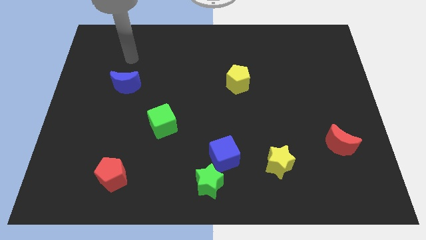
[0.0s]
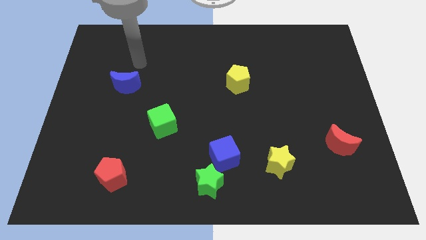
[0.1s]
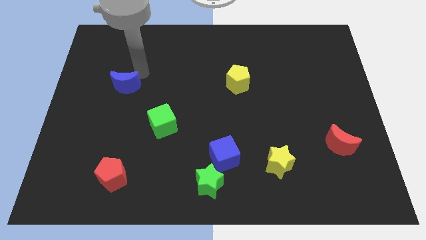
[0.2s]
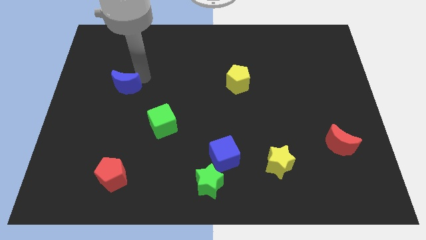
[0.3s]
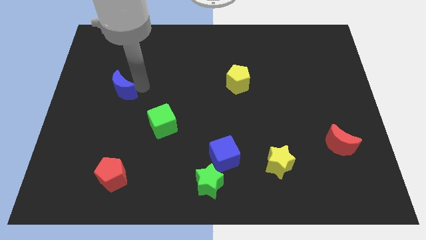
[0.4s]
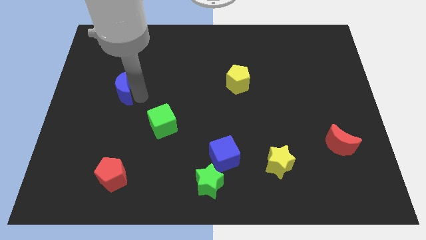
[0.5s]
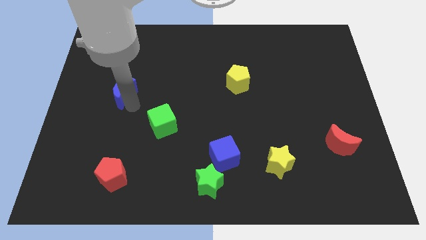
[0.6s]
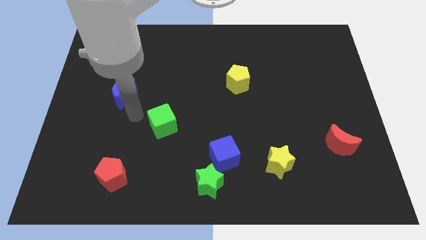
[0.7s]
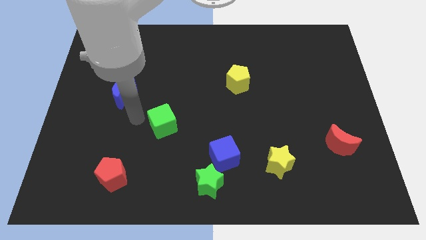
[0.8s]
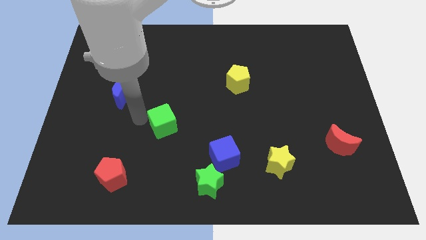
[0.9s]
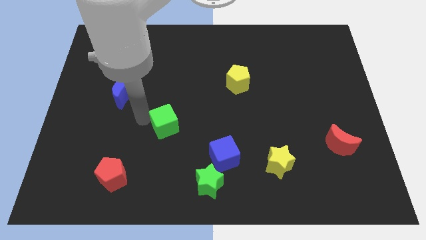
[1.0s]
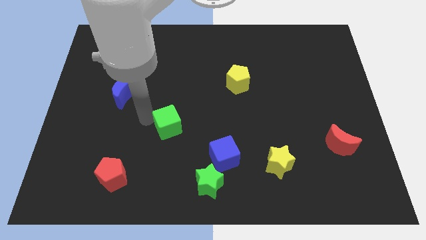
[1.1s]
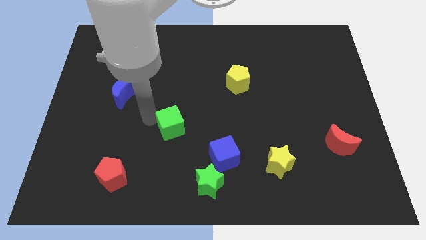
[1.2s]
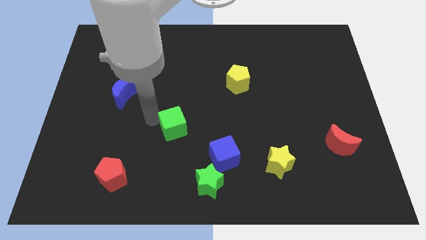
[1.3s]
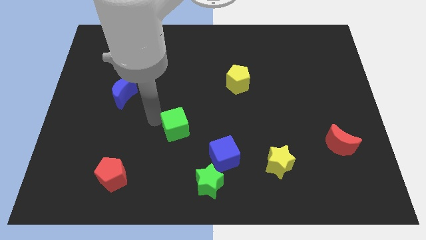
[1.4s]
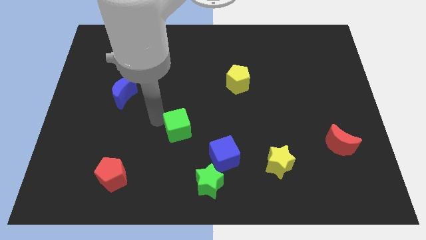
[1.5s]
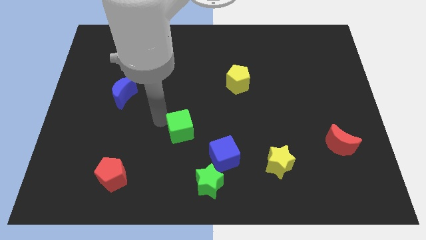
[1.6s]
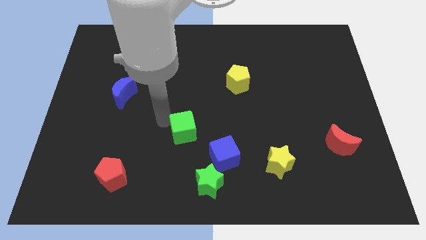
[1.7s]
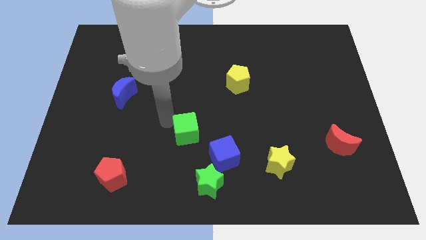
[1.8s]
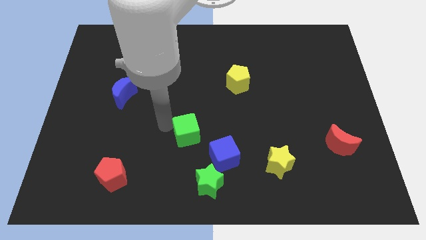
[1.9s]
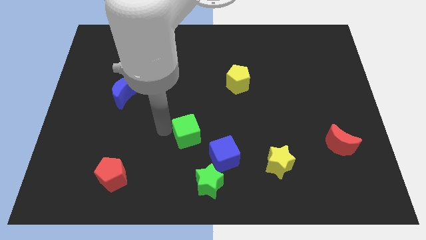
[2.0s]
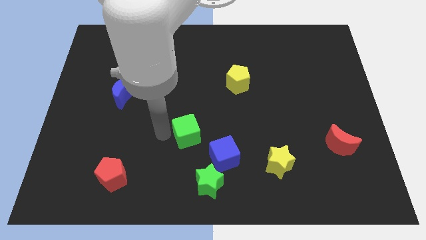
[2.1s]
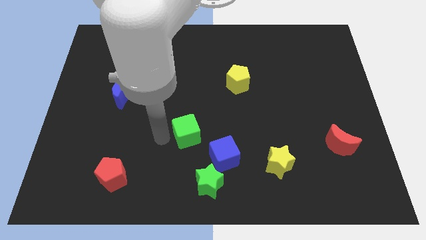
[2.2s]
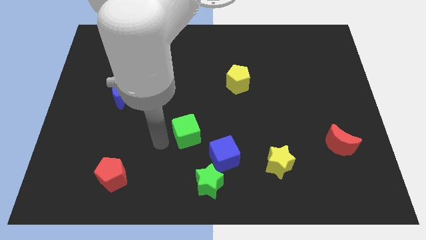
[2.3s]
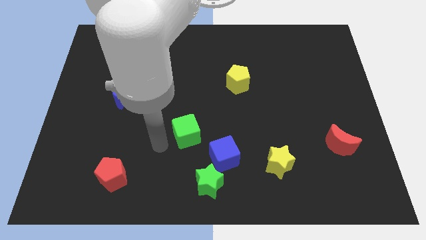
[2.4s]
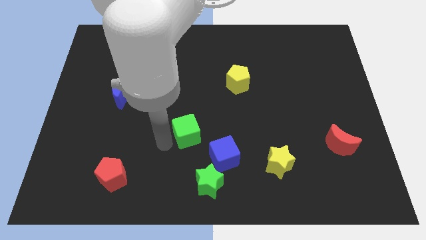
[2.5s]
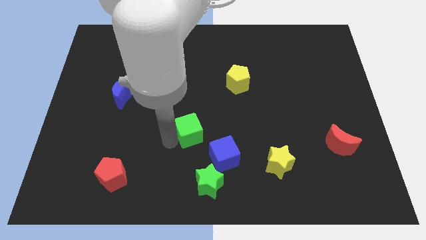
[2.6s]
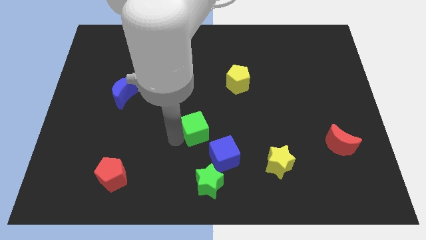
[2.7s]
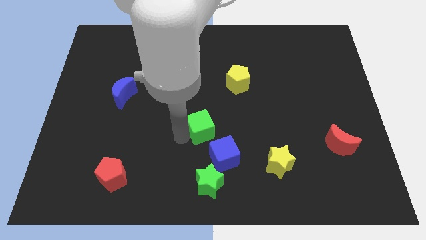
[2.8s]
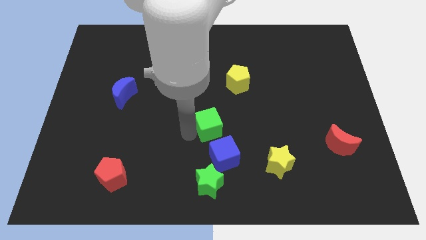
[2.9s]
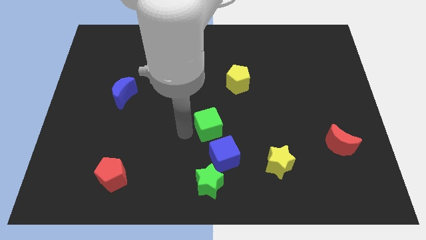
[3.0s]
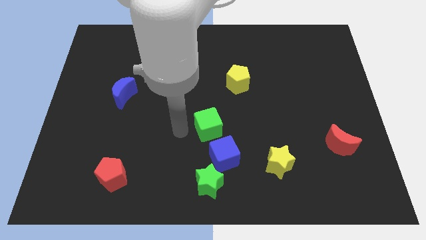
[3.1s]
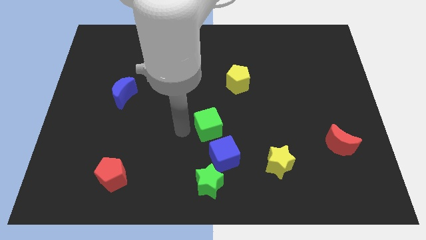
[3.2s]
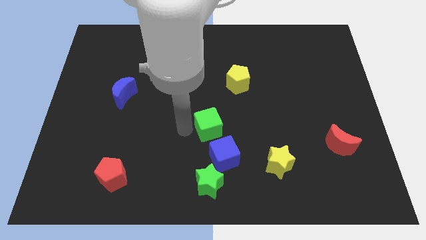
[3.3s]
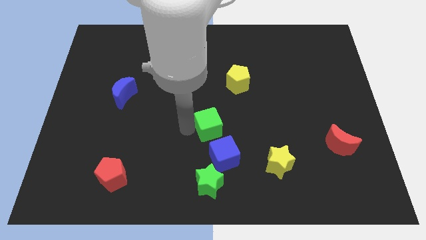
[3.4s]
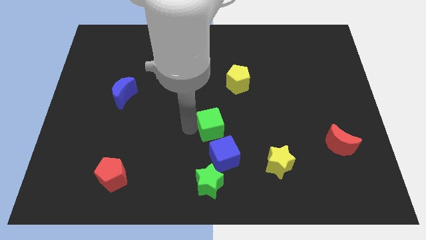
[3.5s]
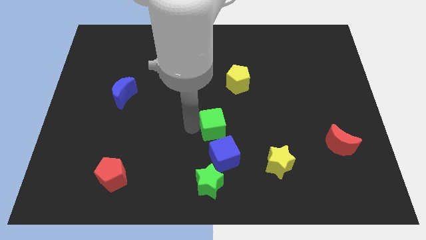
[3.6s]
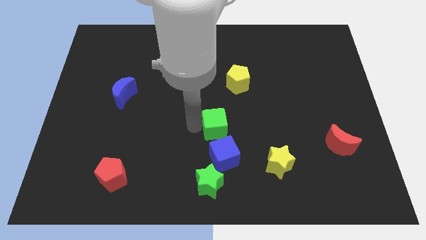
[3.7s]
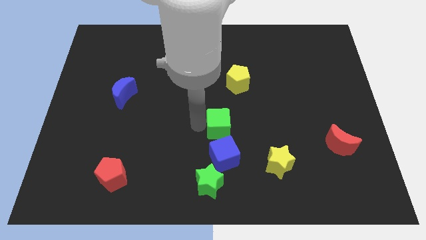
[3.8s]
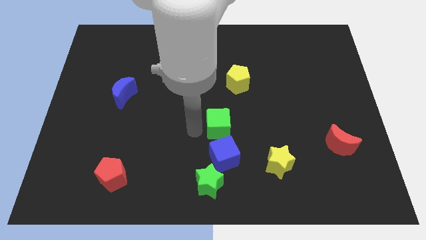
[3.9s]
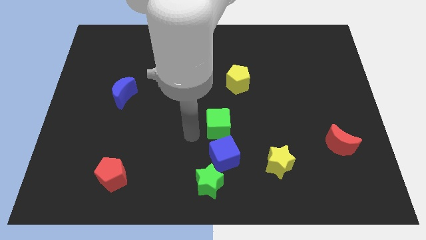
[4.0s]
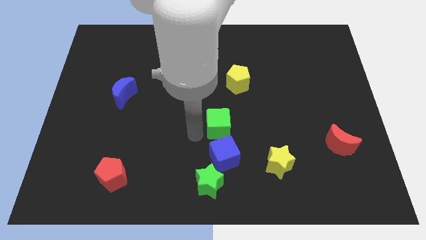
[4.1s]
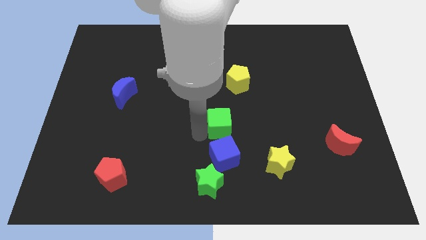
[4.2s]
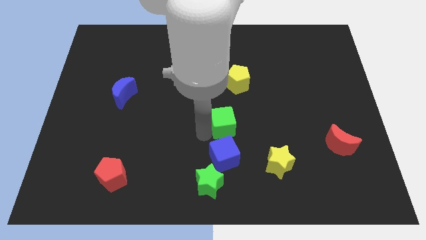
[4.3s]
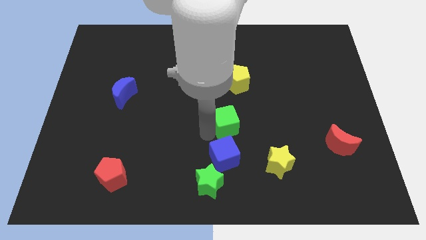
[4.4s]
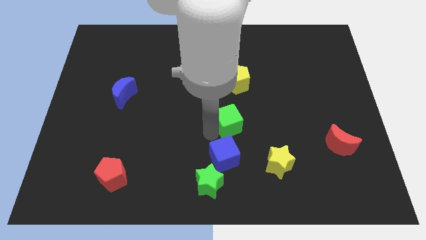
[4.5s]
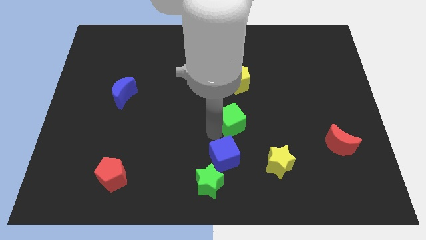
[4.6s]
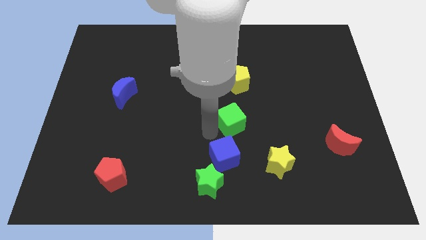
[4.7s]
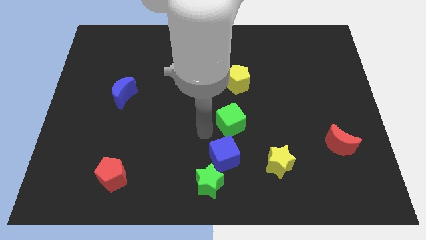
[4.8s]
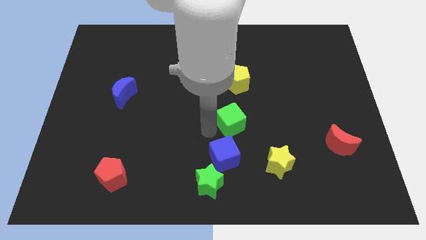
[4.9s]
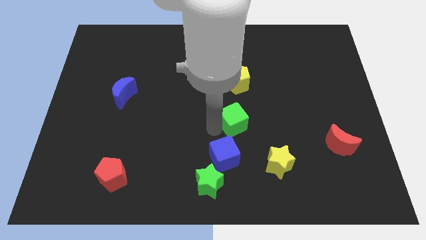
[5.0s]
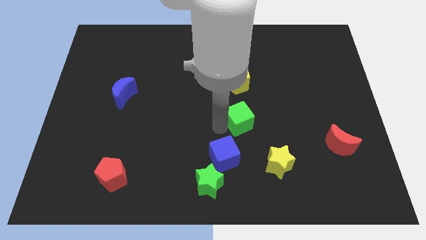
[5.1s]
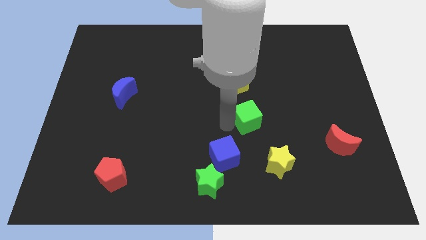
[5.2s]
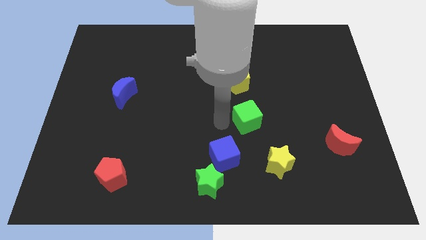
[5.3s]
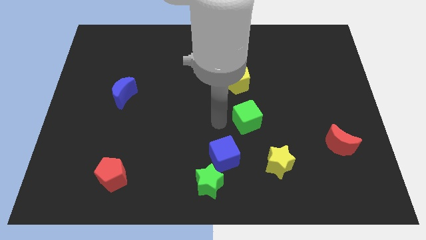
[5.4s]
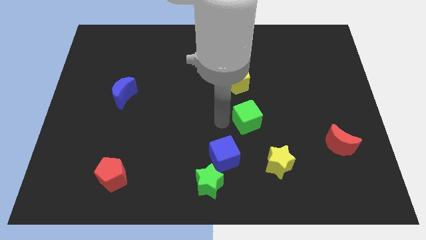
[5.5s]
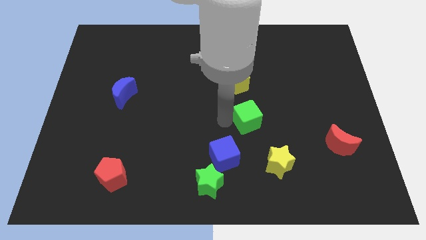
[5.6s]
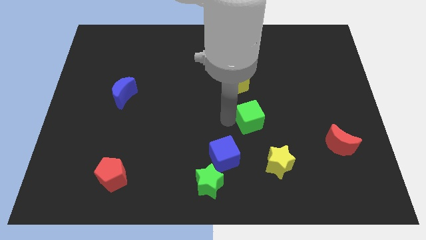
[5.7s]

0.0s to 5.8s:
push the green cube right

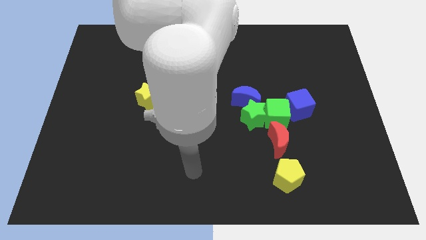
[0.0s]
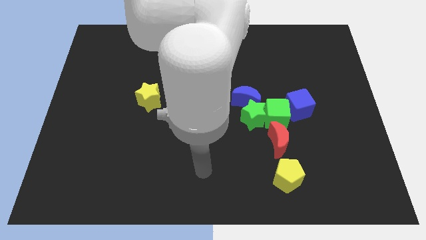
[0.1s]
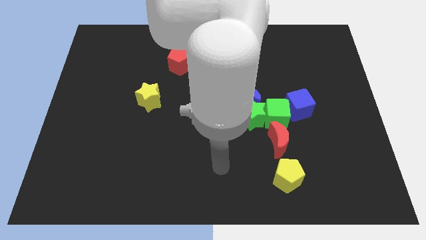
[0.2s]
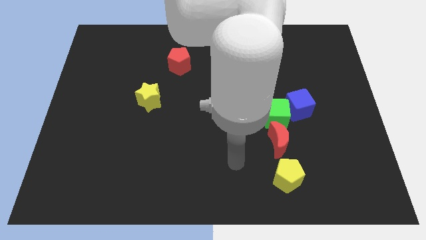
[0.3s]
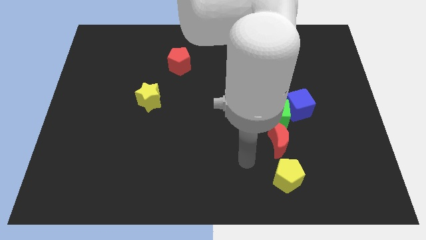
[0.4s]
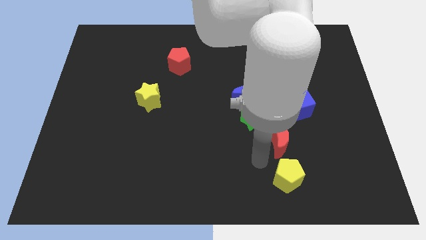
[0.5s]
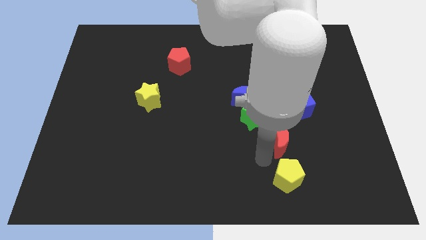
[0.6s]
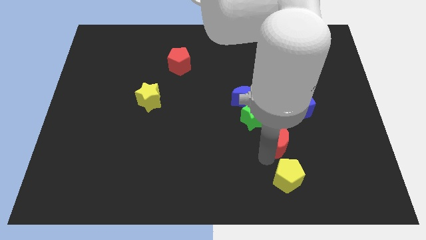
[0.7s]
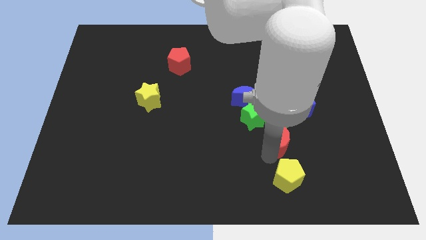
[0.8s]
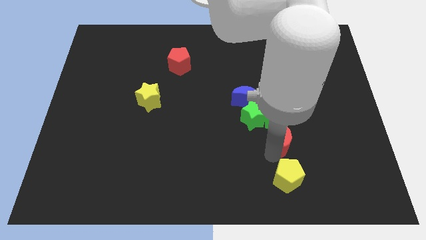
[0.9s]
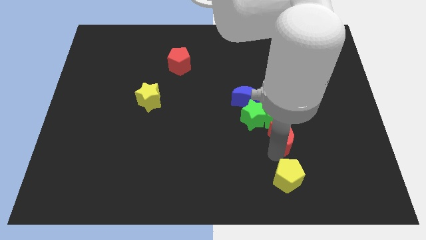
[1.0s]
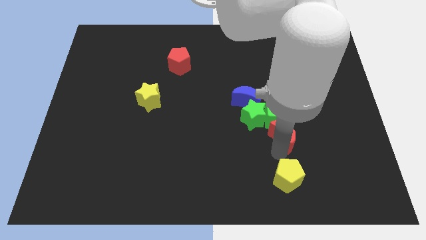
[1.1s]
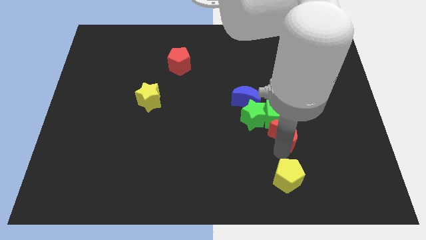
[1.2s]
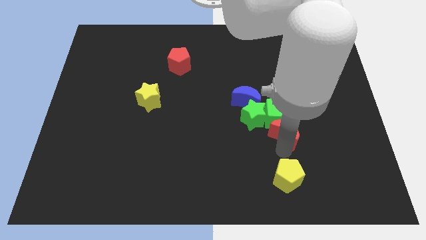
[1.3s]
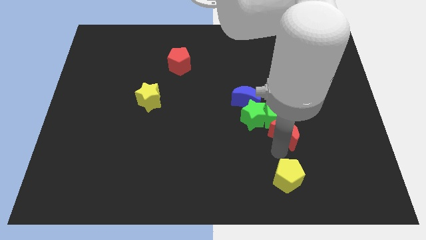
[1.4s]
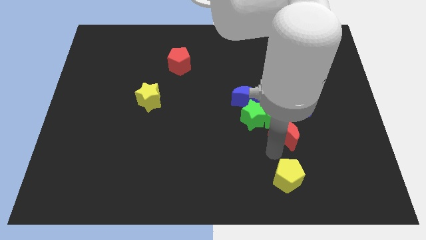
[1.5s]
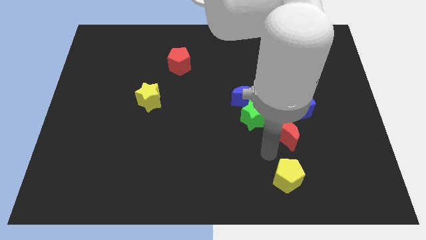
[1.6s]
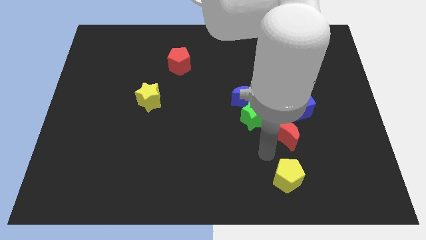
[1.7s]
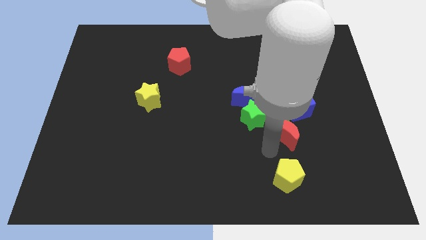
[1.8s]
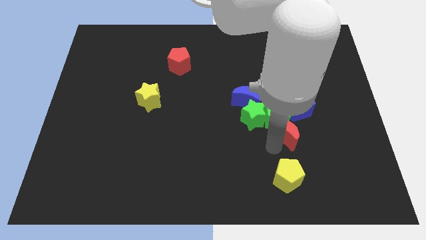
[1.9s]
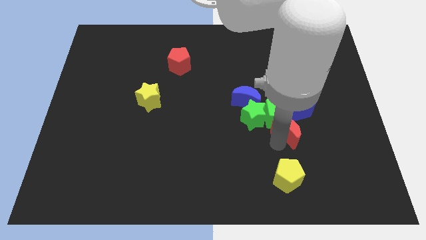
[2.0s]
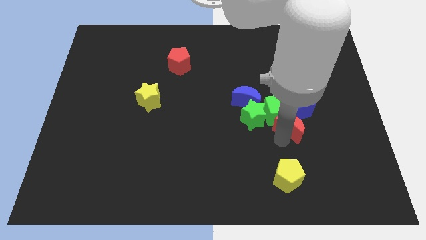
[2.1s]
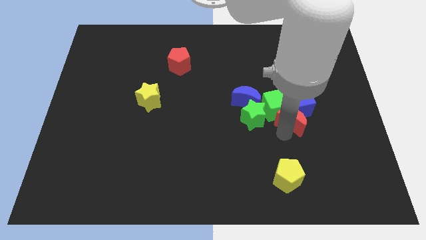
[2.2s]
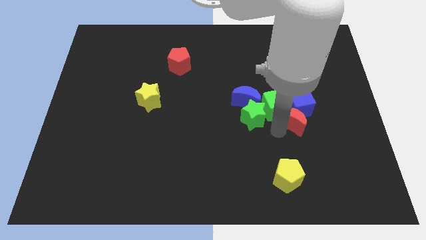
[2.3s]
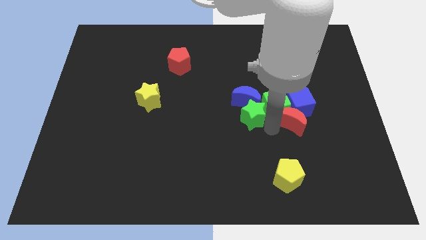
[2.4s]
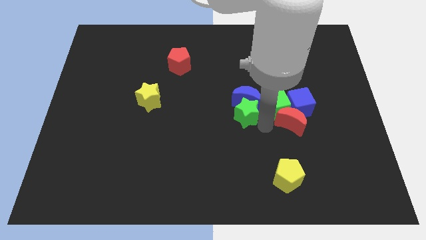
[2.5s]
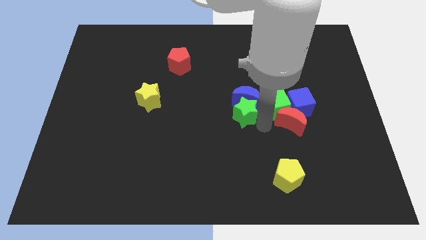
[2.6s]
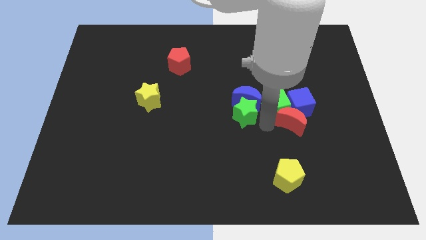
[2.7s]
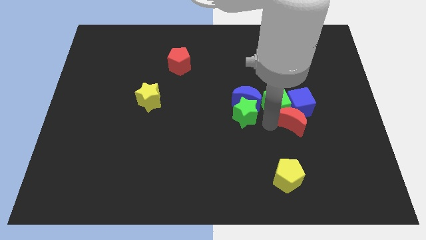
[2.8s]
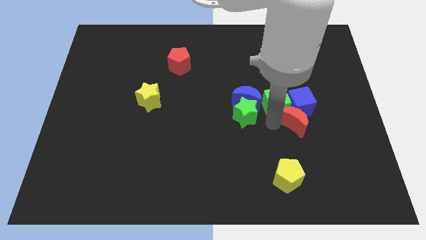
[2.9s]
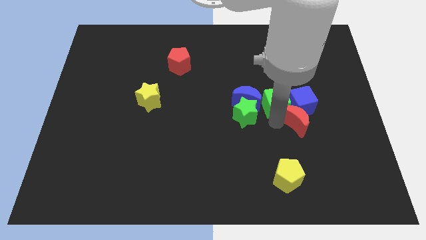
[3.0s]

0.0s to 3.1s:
slightly slide the red moon upwards and right diagonally
